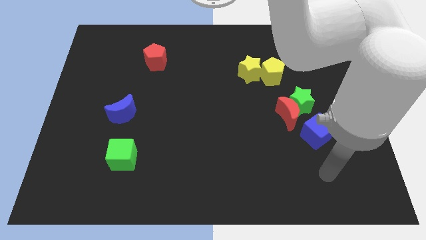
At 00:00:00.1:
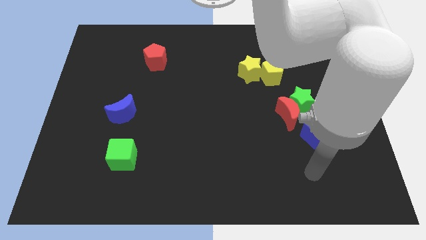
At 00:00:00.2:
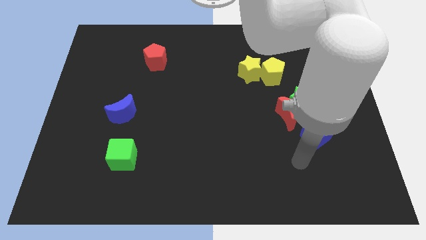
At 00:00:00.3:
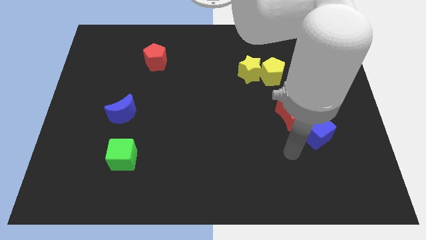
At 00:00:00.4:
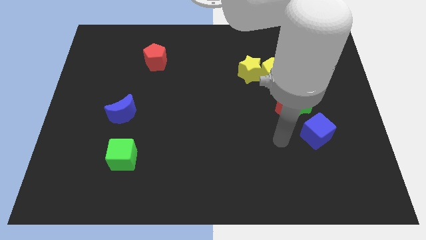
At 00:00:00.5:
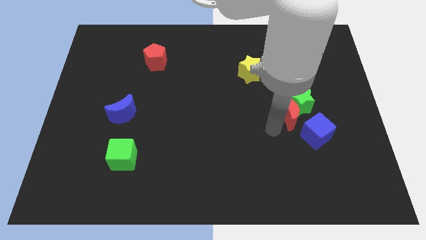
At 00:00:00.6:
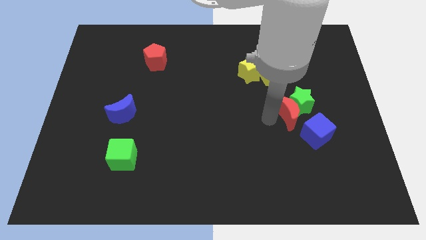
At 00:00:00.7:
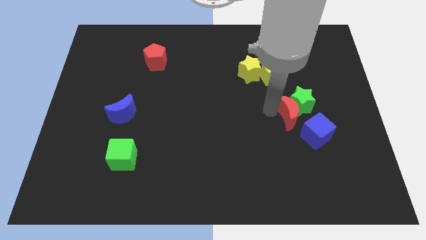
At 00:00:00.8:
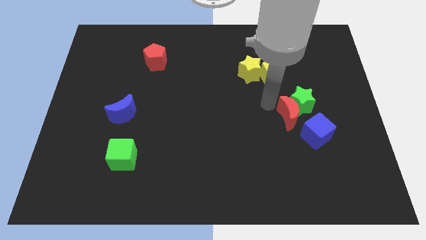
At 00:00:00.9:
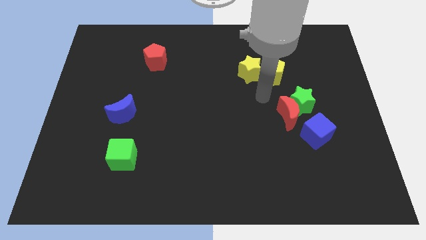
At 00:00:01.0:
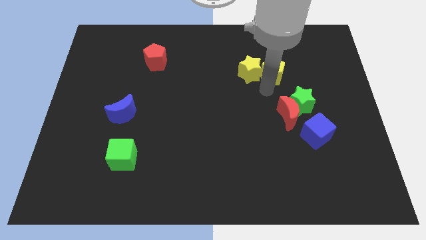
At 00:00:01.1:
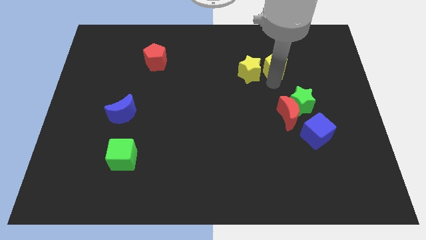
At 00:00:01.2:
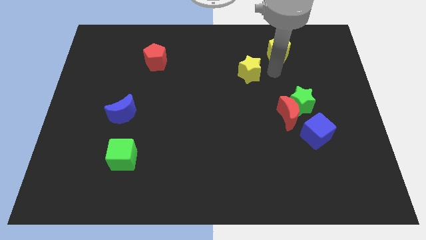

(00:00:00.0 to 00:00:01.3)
move the yellow star away from the yellow pentagon

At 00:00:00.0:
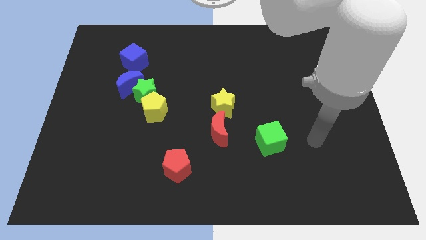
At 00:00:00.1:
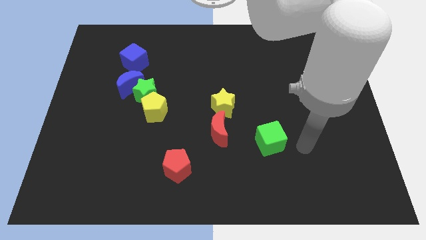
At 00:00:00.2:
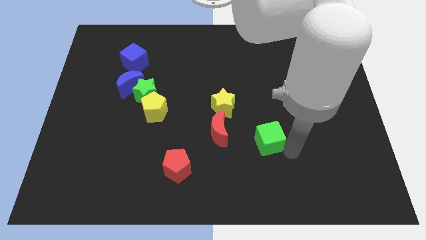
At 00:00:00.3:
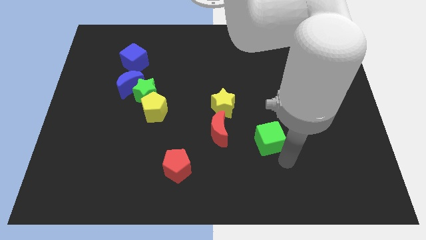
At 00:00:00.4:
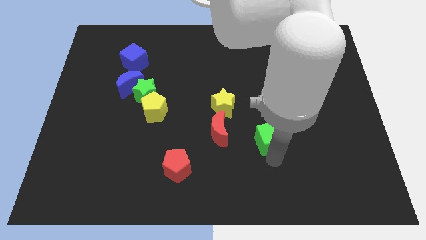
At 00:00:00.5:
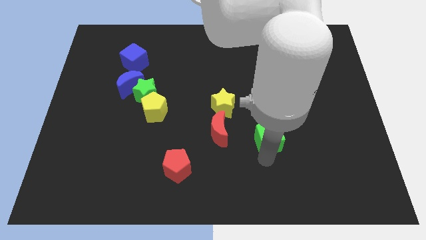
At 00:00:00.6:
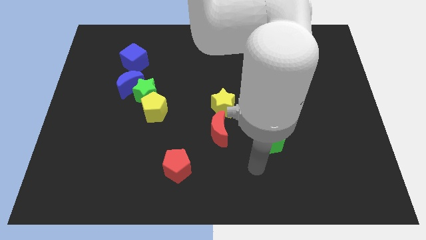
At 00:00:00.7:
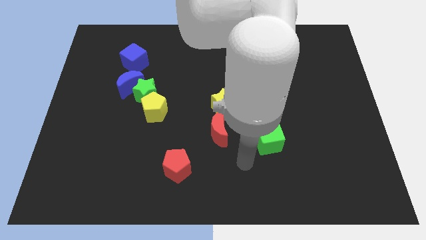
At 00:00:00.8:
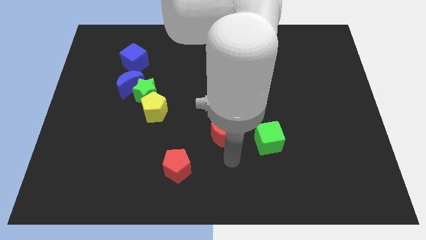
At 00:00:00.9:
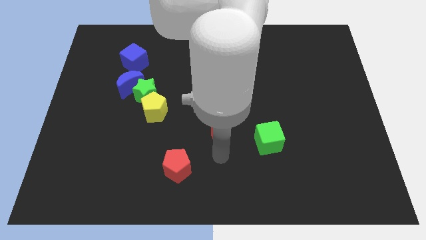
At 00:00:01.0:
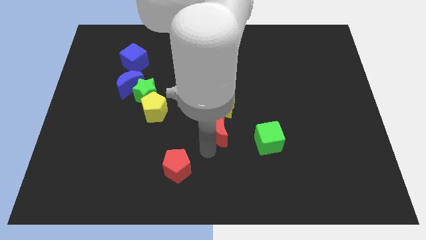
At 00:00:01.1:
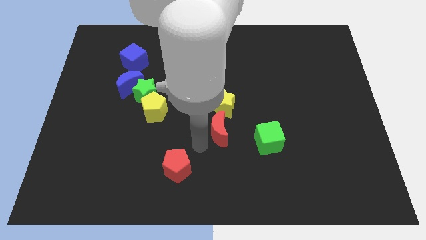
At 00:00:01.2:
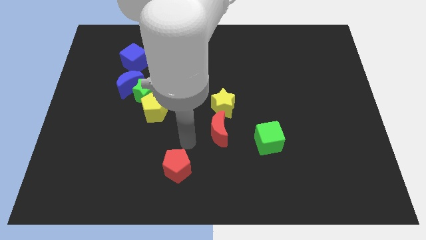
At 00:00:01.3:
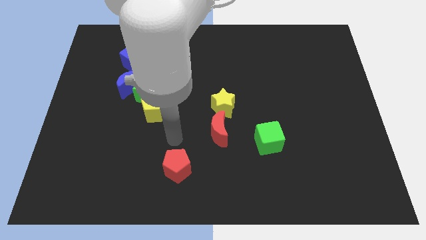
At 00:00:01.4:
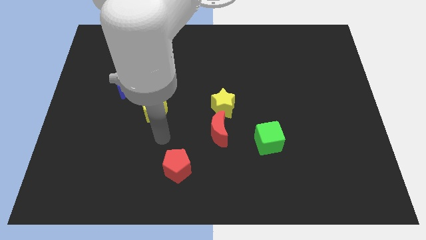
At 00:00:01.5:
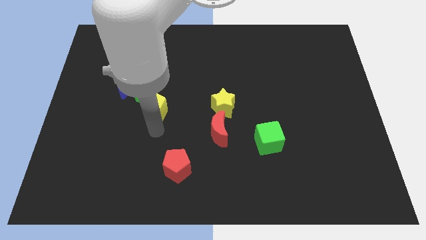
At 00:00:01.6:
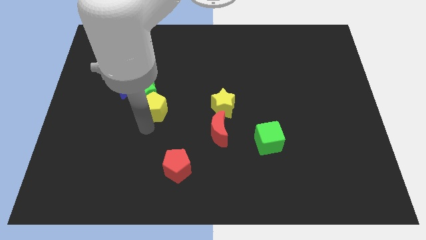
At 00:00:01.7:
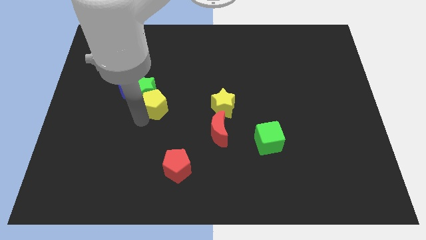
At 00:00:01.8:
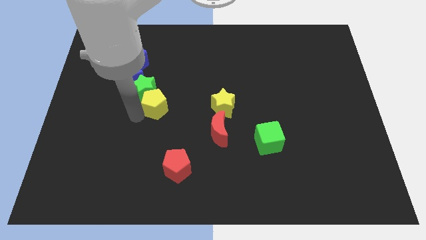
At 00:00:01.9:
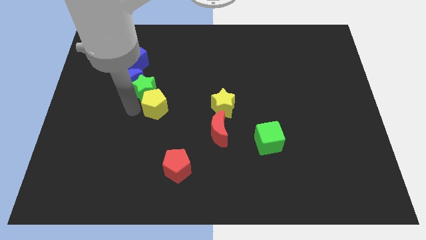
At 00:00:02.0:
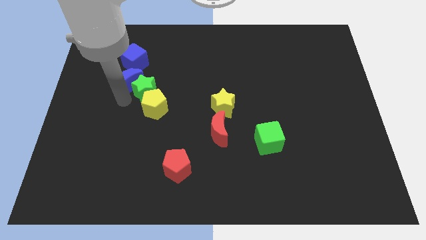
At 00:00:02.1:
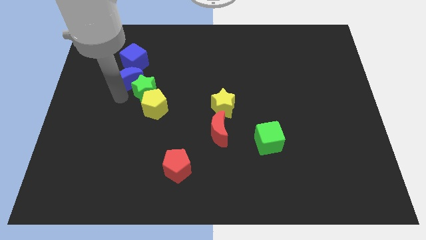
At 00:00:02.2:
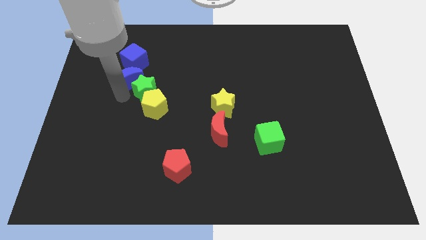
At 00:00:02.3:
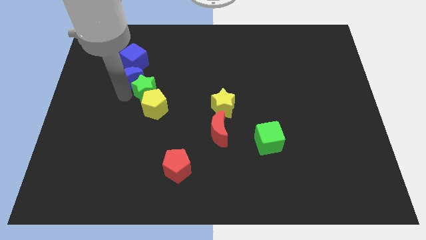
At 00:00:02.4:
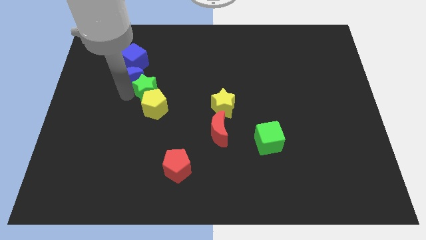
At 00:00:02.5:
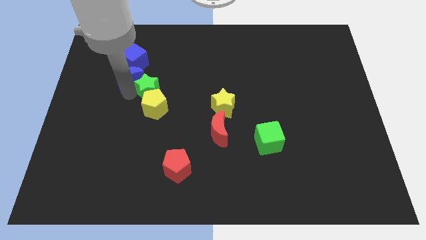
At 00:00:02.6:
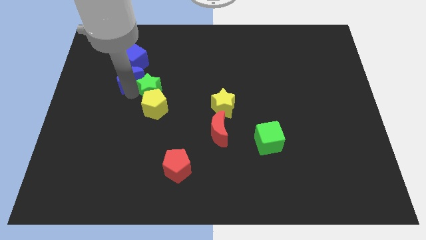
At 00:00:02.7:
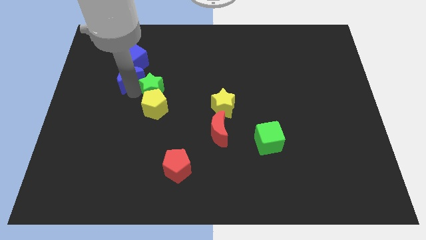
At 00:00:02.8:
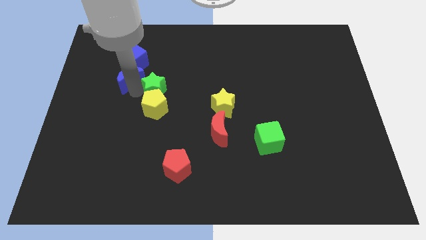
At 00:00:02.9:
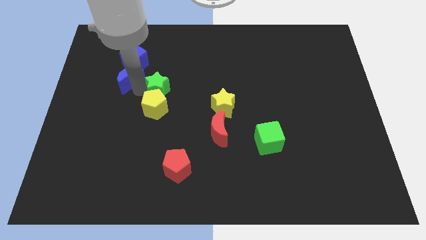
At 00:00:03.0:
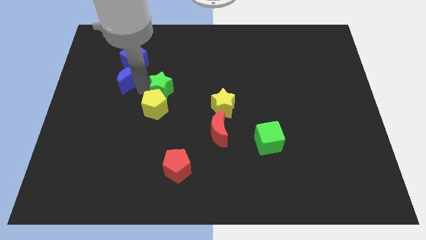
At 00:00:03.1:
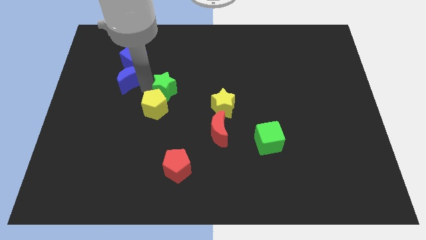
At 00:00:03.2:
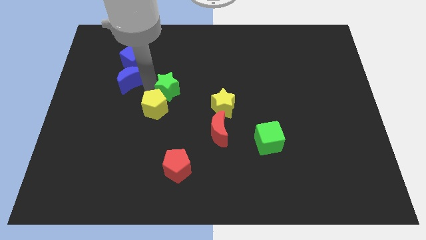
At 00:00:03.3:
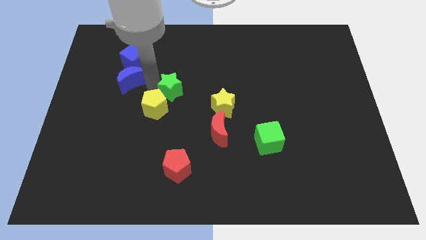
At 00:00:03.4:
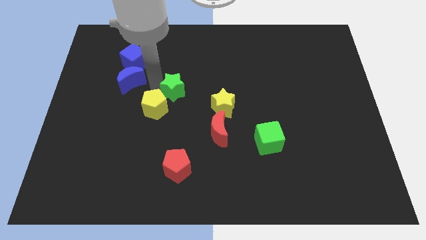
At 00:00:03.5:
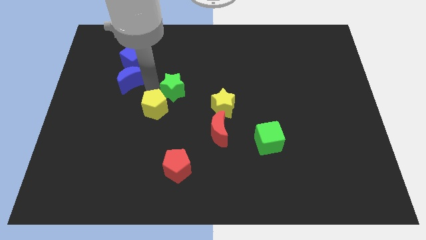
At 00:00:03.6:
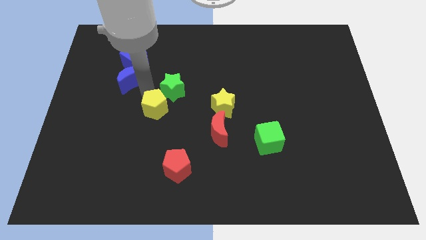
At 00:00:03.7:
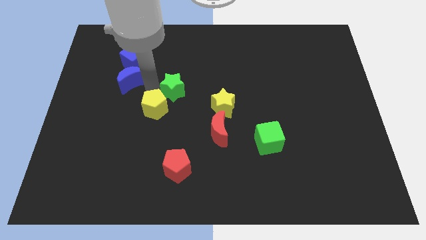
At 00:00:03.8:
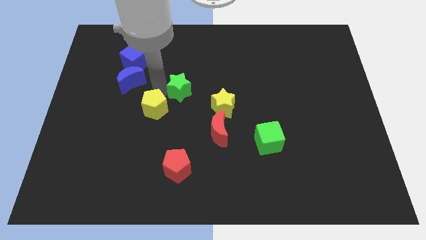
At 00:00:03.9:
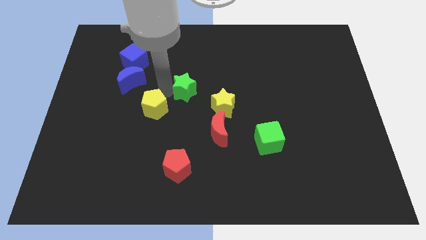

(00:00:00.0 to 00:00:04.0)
move the green star away from the yellow pentagon and blue moon

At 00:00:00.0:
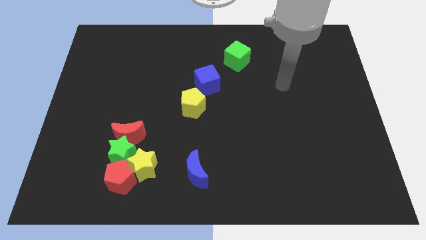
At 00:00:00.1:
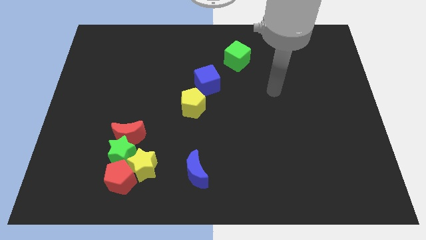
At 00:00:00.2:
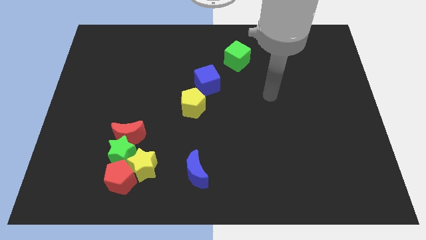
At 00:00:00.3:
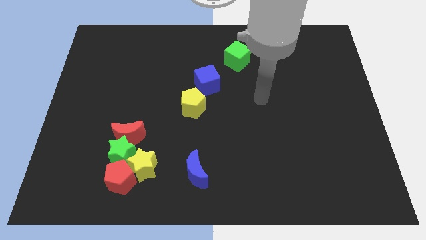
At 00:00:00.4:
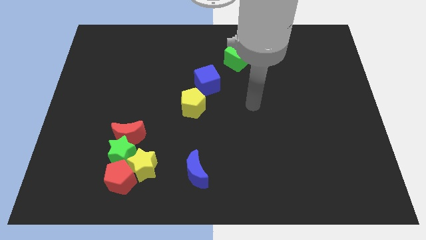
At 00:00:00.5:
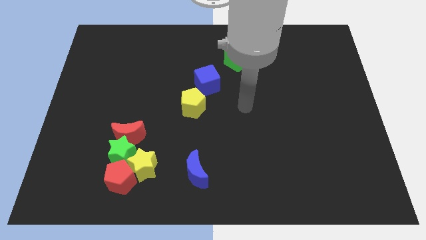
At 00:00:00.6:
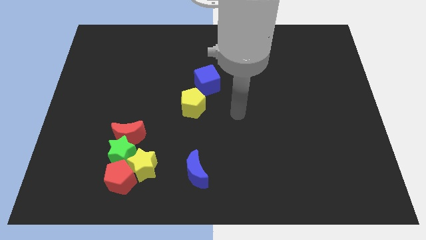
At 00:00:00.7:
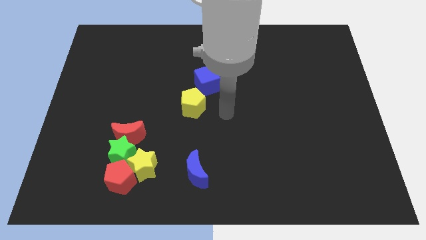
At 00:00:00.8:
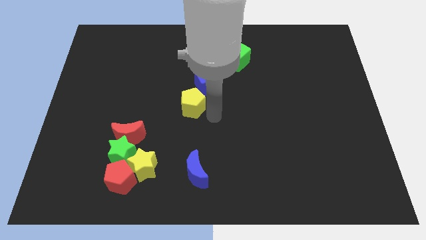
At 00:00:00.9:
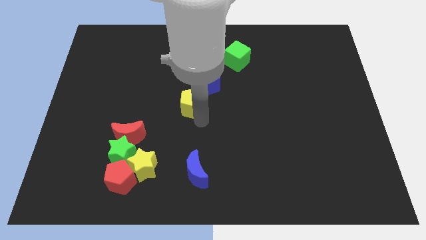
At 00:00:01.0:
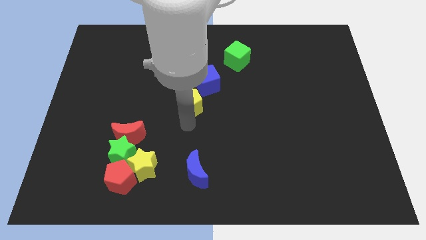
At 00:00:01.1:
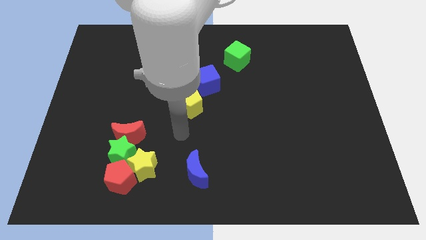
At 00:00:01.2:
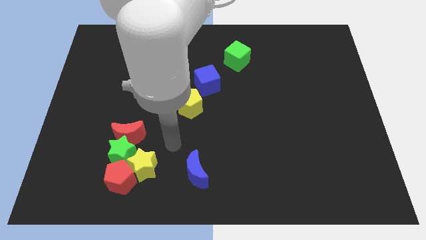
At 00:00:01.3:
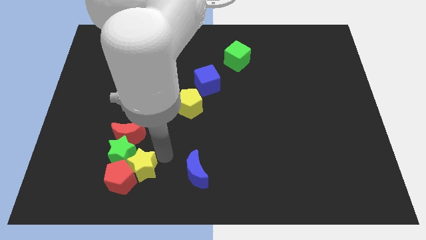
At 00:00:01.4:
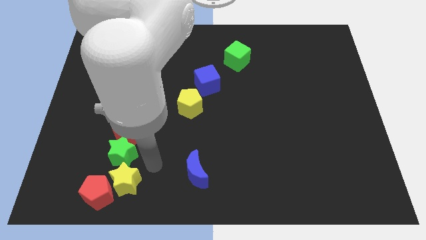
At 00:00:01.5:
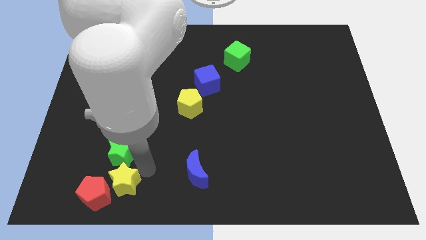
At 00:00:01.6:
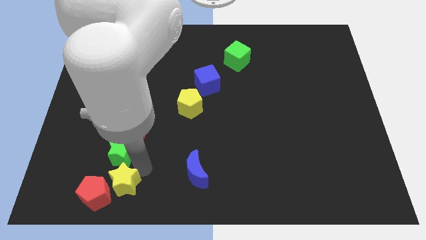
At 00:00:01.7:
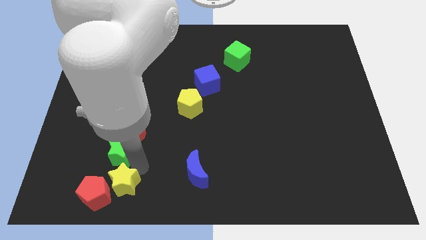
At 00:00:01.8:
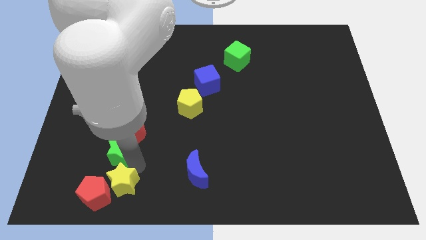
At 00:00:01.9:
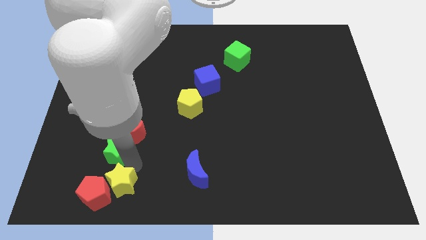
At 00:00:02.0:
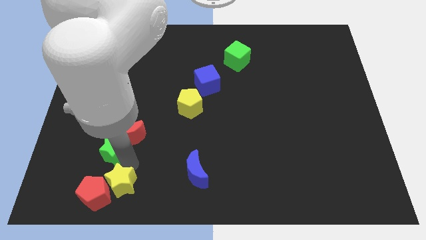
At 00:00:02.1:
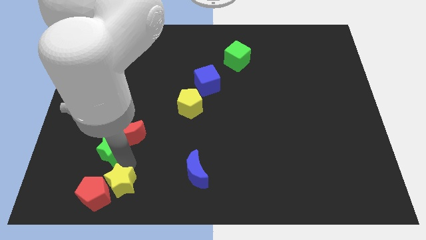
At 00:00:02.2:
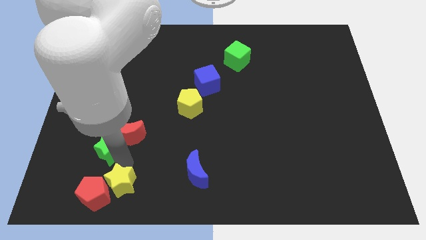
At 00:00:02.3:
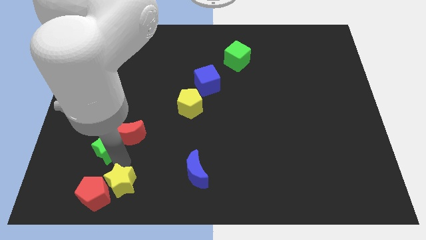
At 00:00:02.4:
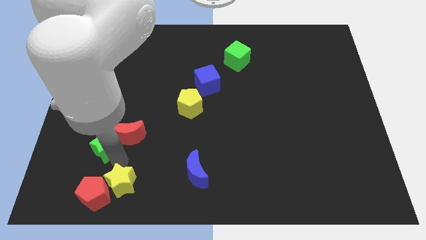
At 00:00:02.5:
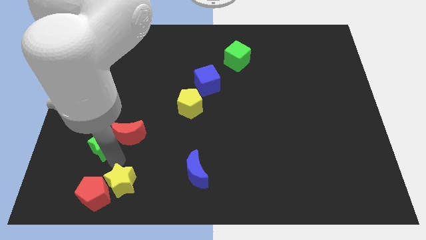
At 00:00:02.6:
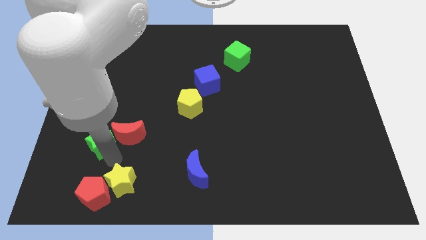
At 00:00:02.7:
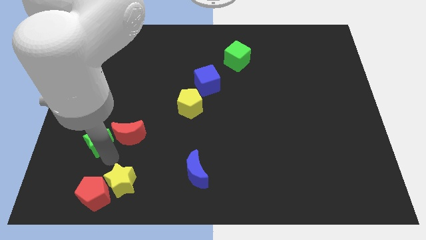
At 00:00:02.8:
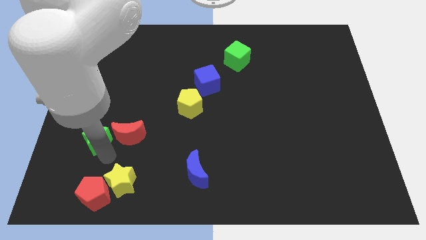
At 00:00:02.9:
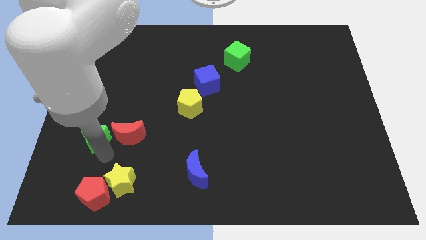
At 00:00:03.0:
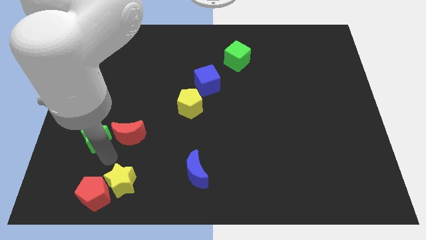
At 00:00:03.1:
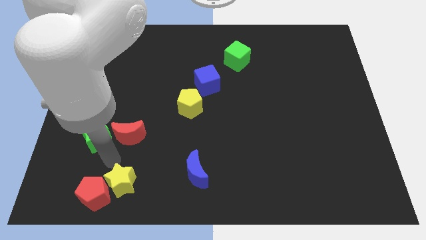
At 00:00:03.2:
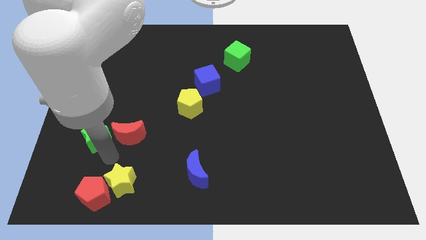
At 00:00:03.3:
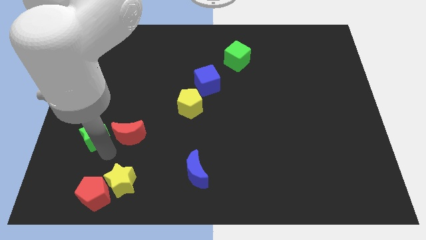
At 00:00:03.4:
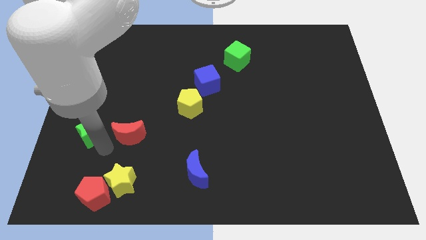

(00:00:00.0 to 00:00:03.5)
pull the green star apart from the clump

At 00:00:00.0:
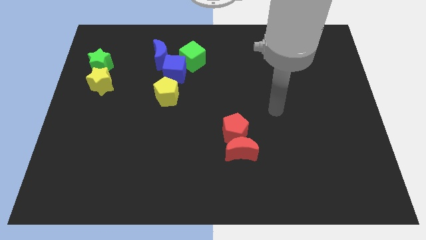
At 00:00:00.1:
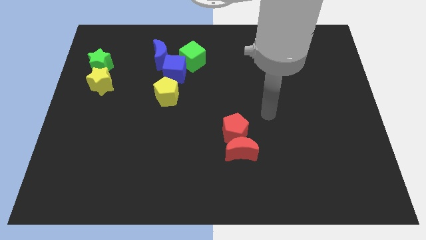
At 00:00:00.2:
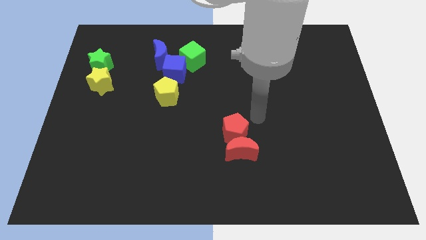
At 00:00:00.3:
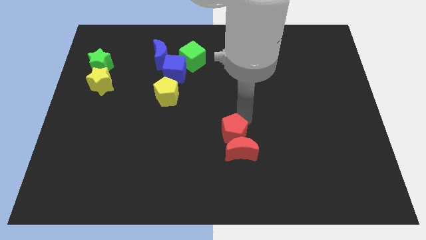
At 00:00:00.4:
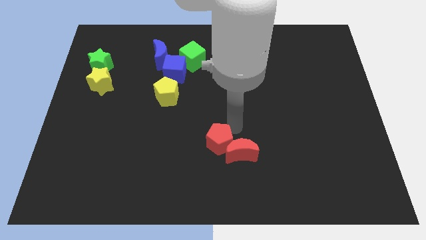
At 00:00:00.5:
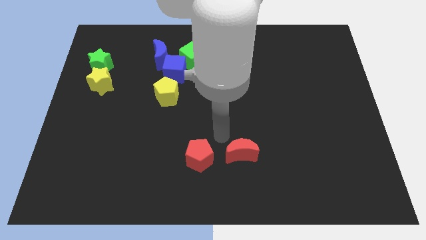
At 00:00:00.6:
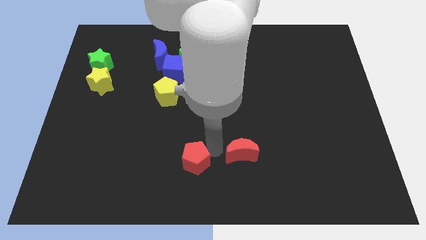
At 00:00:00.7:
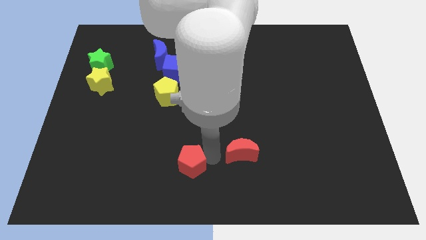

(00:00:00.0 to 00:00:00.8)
pull the red moon apart from the red pentagon
